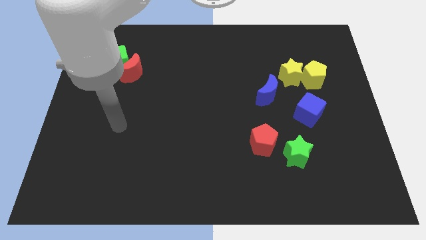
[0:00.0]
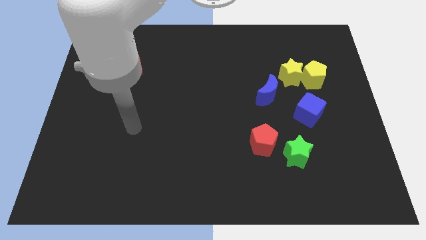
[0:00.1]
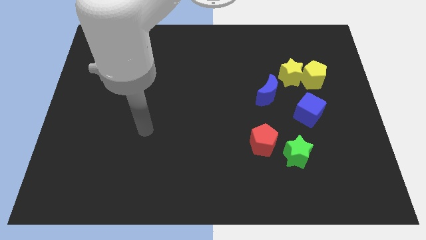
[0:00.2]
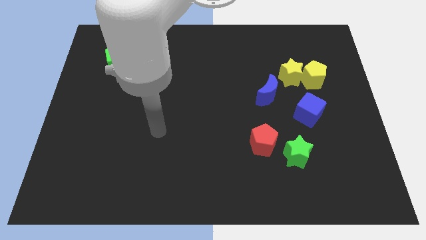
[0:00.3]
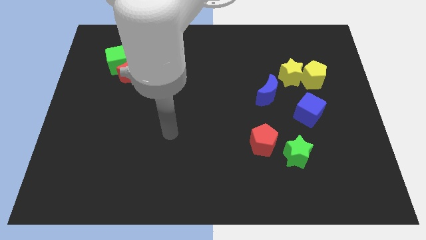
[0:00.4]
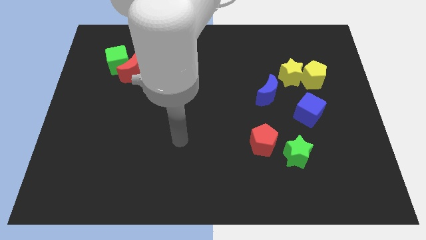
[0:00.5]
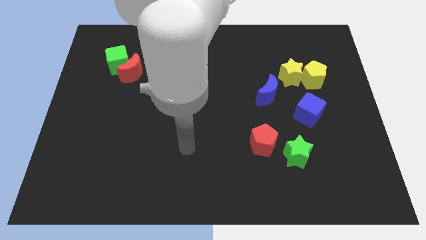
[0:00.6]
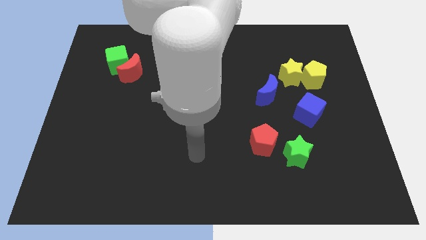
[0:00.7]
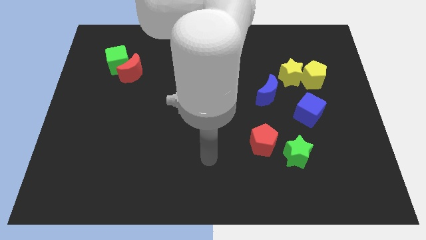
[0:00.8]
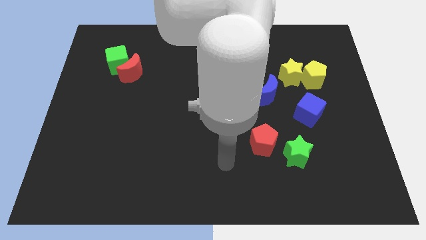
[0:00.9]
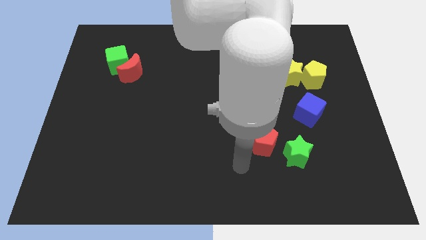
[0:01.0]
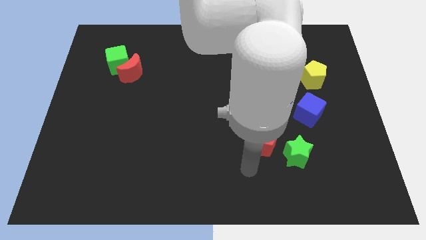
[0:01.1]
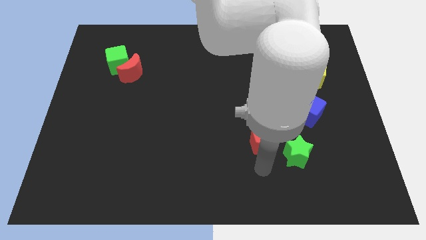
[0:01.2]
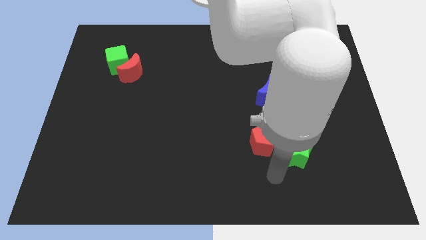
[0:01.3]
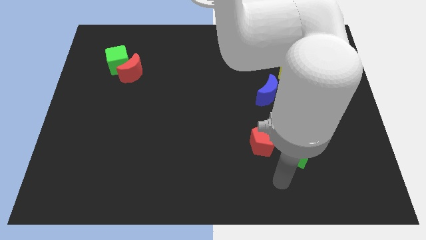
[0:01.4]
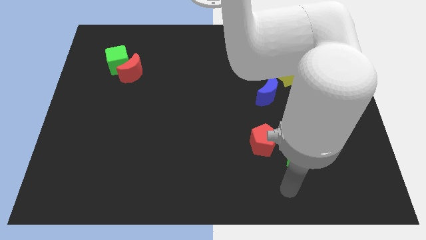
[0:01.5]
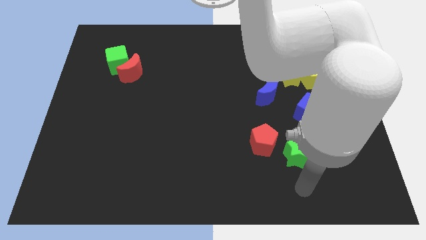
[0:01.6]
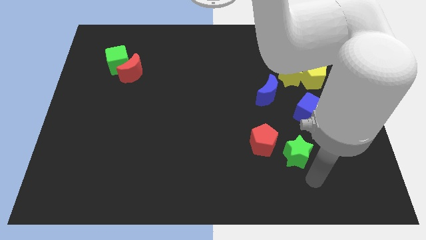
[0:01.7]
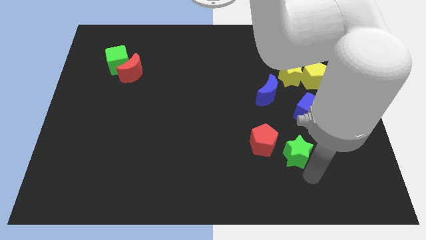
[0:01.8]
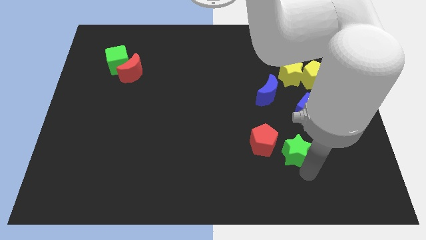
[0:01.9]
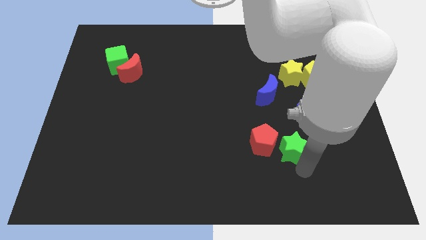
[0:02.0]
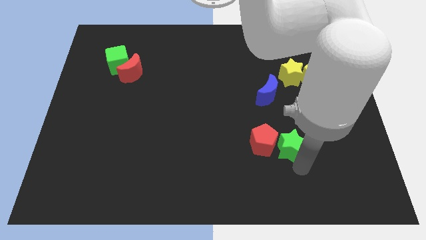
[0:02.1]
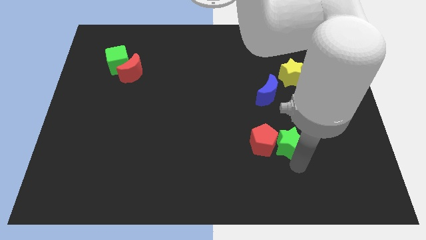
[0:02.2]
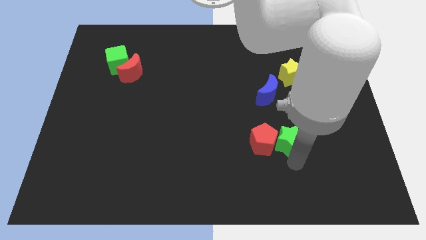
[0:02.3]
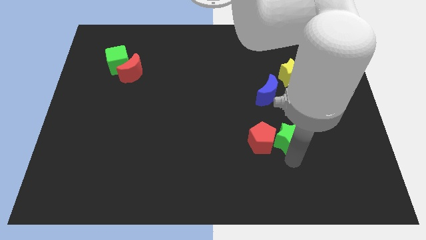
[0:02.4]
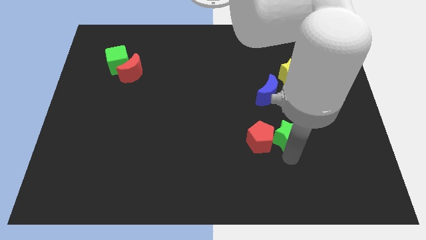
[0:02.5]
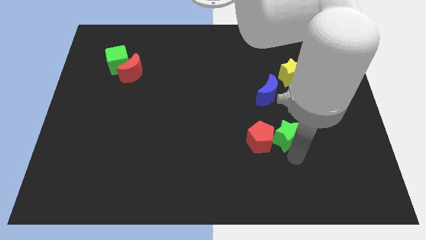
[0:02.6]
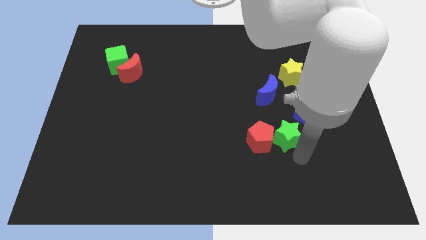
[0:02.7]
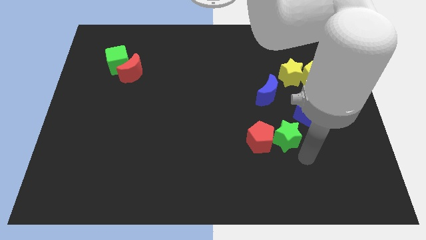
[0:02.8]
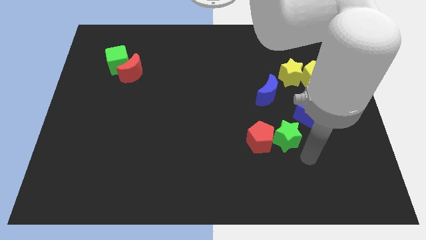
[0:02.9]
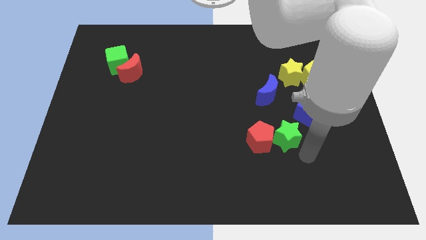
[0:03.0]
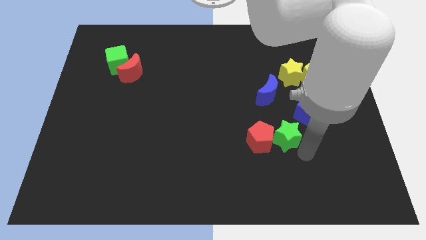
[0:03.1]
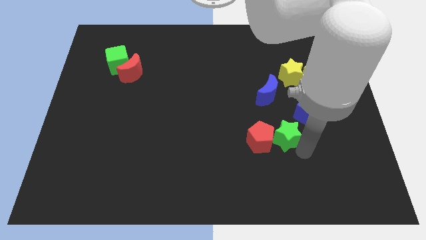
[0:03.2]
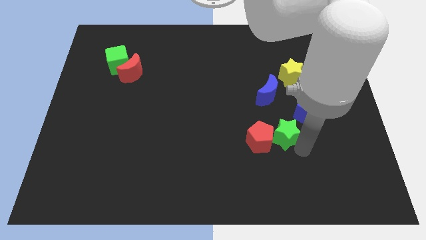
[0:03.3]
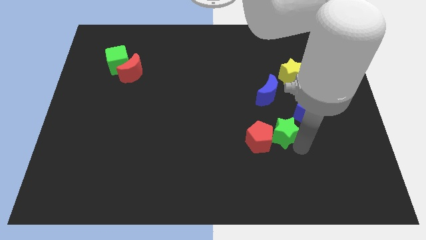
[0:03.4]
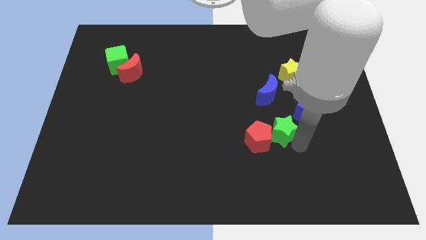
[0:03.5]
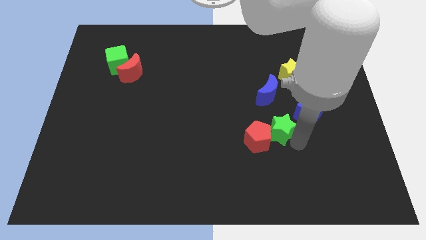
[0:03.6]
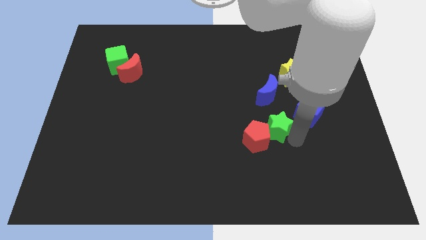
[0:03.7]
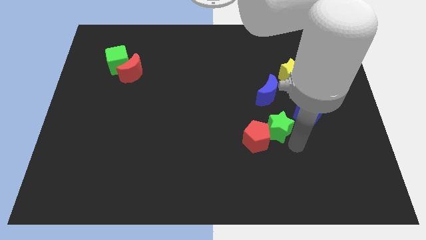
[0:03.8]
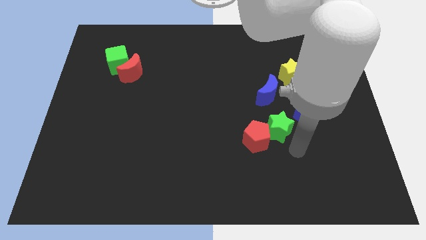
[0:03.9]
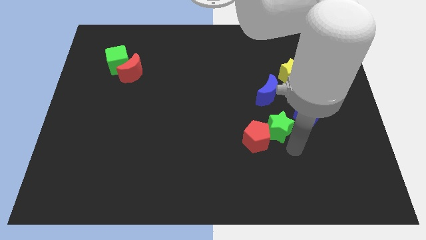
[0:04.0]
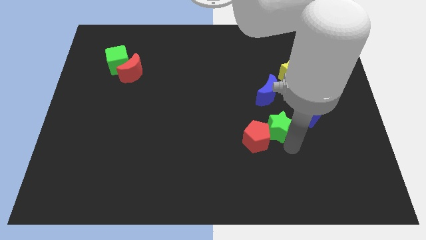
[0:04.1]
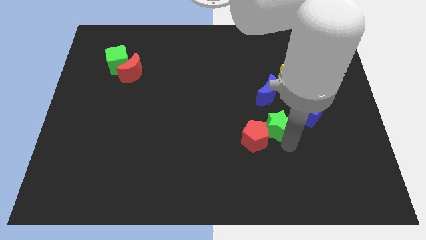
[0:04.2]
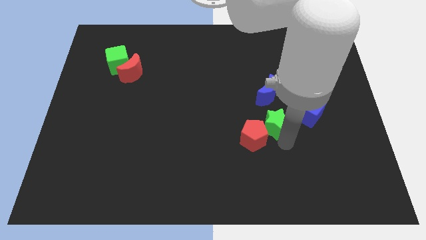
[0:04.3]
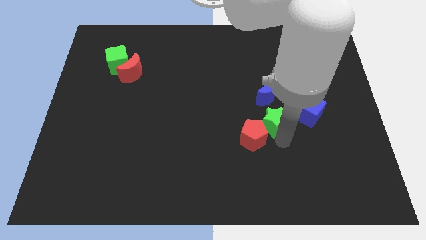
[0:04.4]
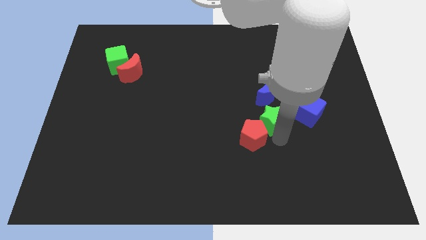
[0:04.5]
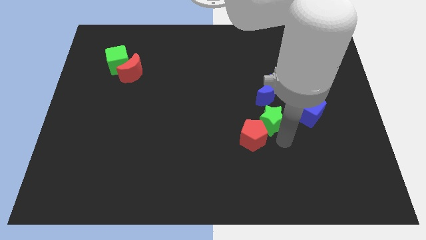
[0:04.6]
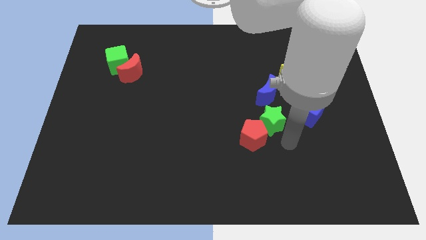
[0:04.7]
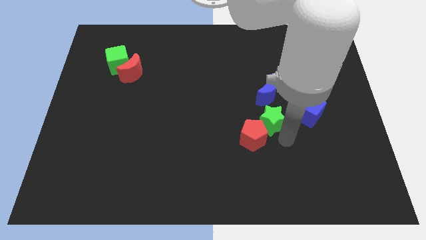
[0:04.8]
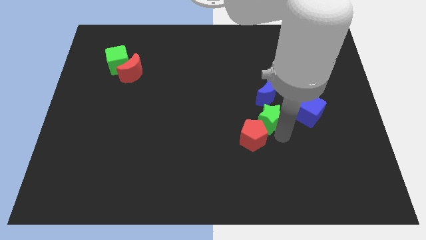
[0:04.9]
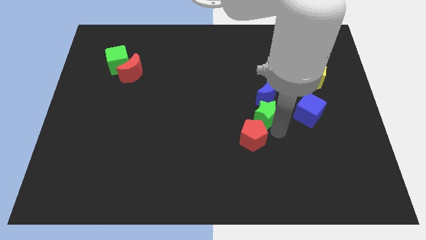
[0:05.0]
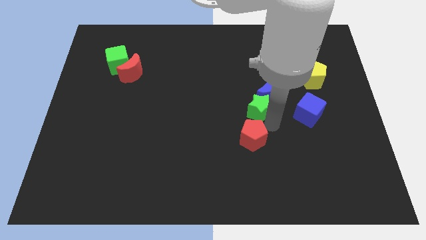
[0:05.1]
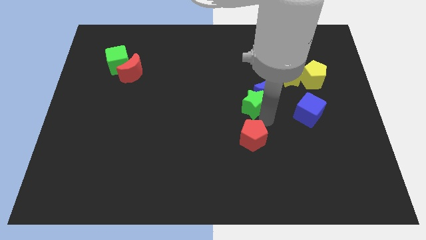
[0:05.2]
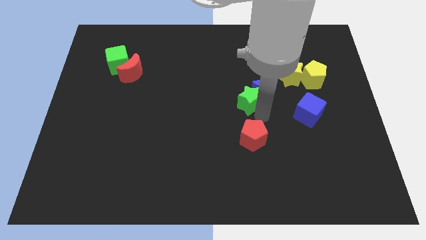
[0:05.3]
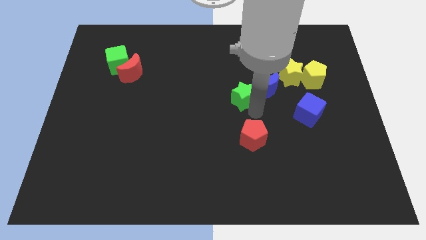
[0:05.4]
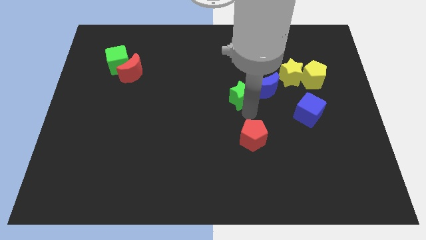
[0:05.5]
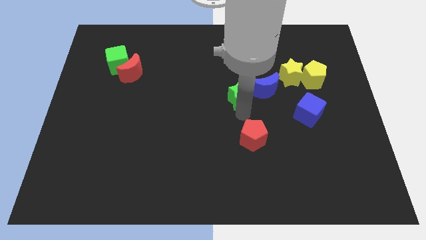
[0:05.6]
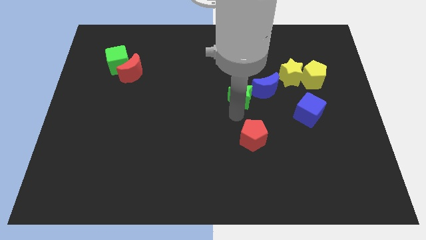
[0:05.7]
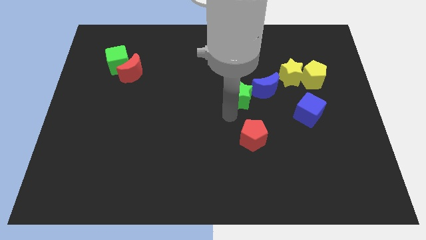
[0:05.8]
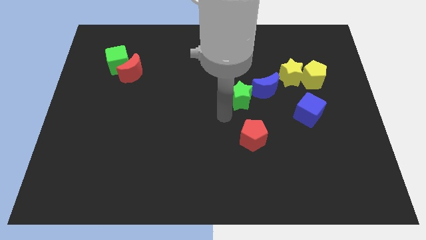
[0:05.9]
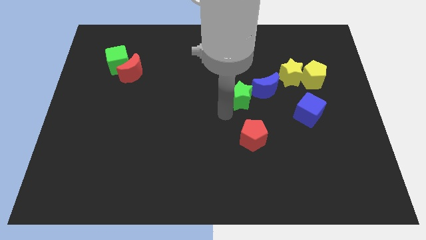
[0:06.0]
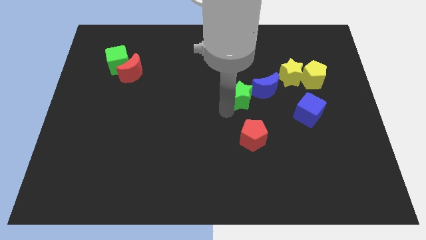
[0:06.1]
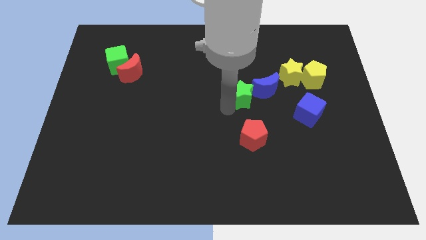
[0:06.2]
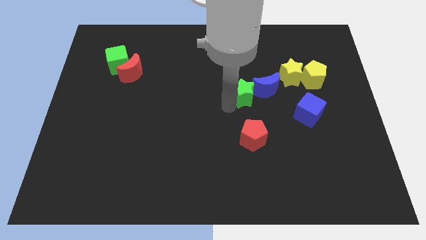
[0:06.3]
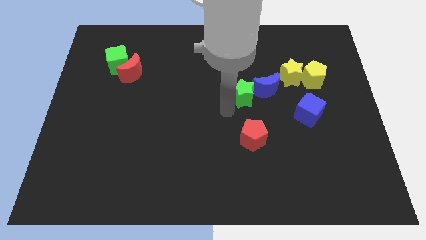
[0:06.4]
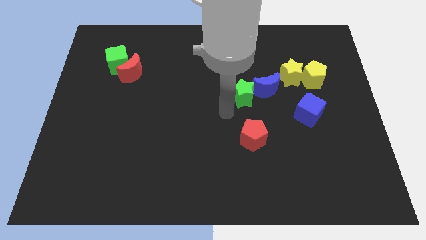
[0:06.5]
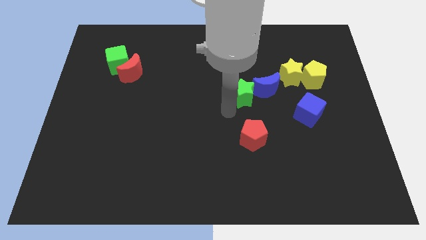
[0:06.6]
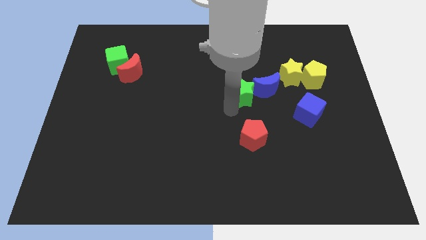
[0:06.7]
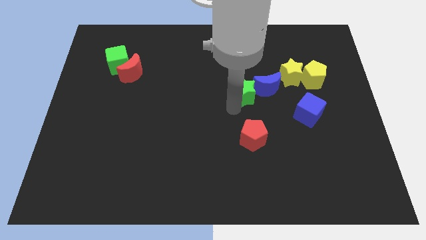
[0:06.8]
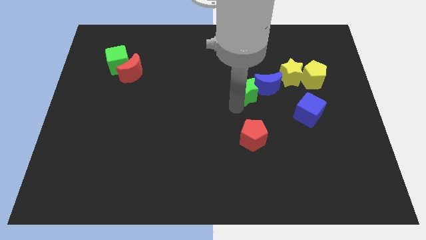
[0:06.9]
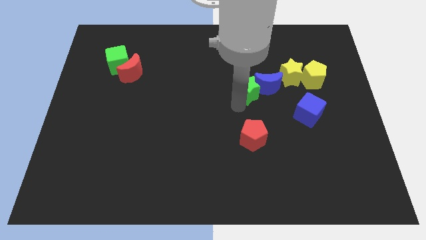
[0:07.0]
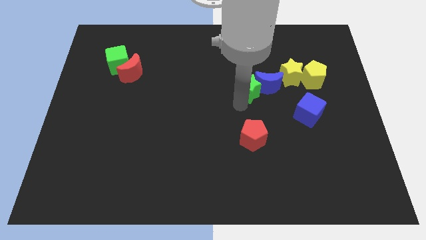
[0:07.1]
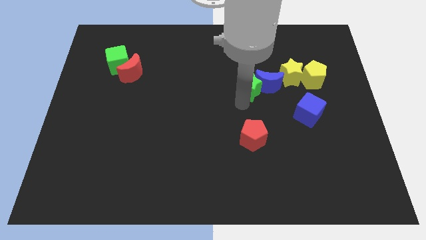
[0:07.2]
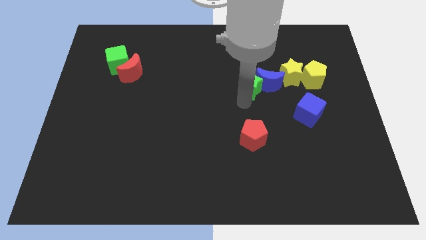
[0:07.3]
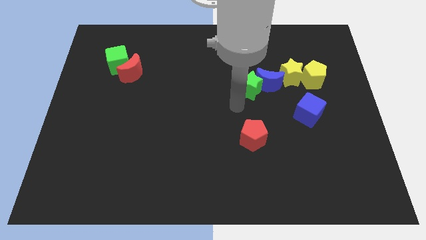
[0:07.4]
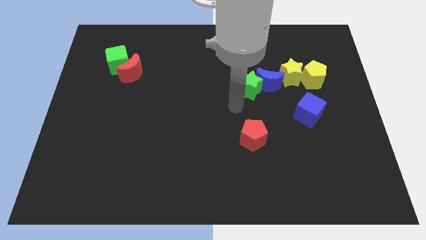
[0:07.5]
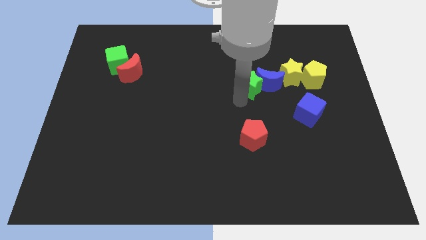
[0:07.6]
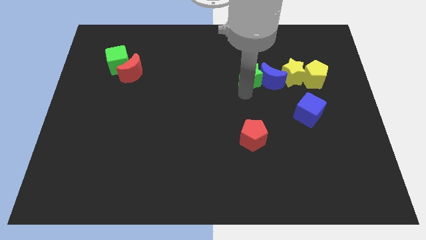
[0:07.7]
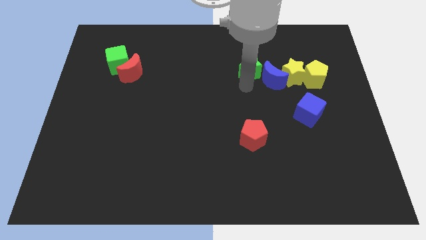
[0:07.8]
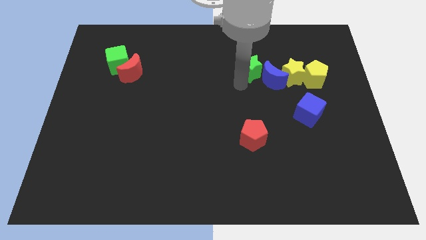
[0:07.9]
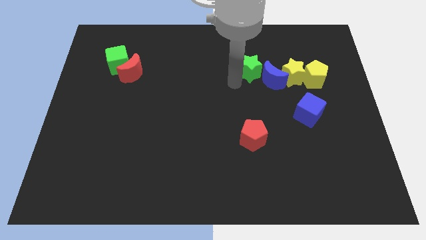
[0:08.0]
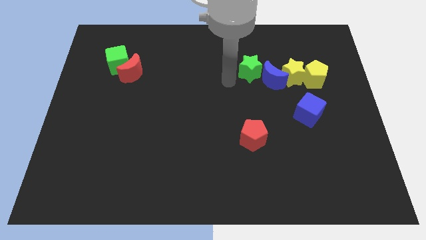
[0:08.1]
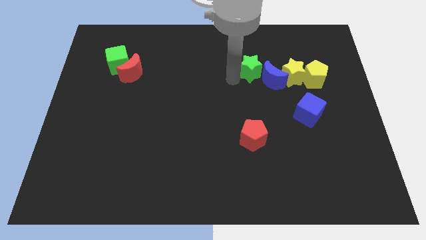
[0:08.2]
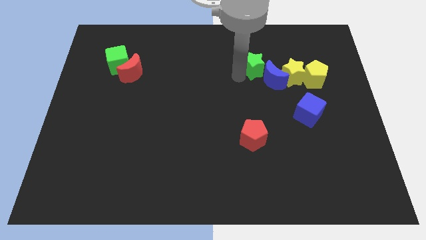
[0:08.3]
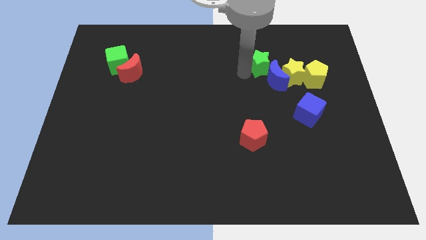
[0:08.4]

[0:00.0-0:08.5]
move the green star diagonally up and to the left of the yellow star
